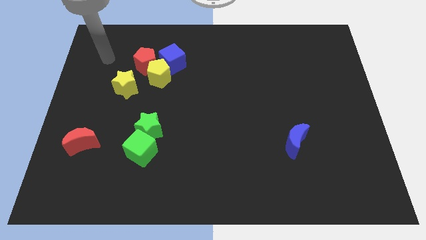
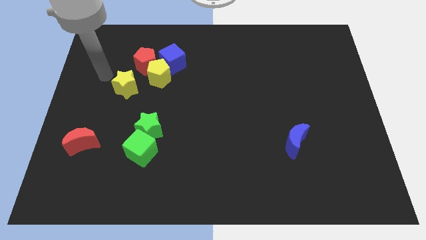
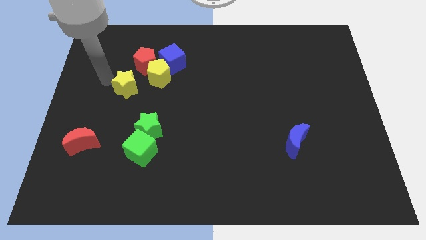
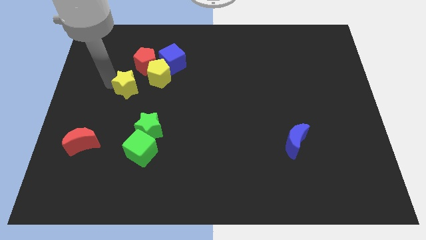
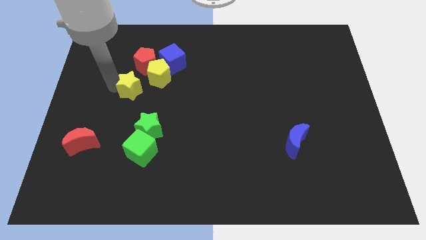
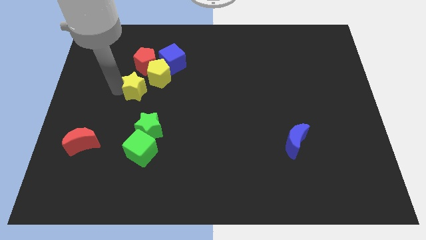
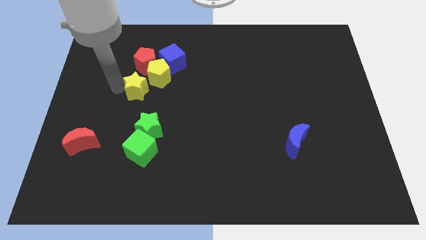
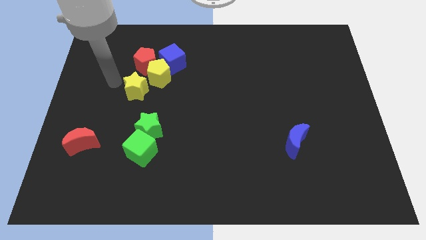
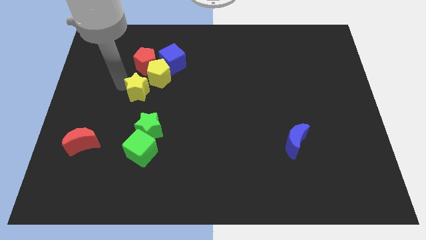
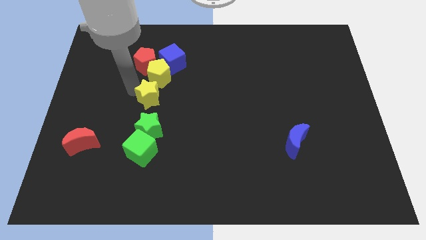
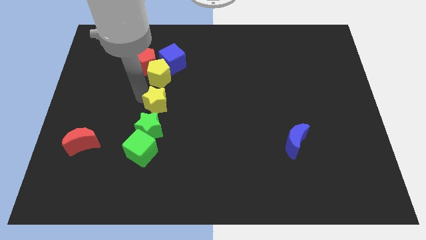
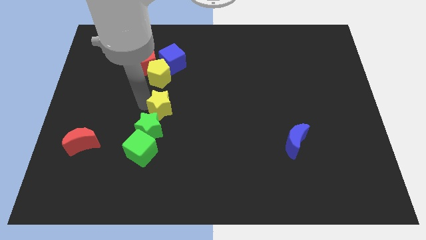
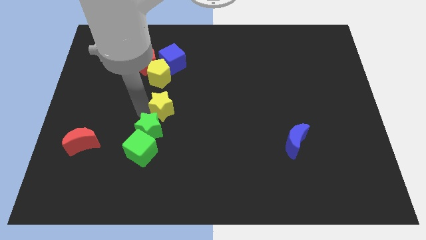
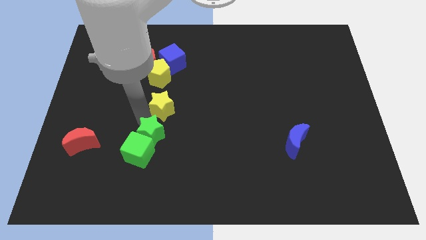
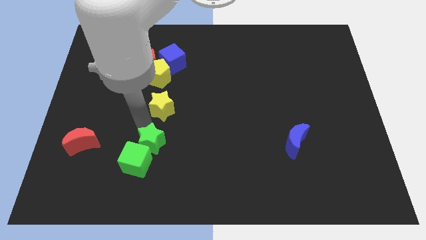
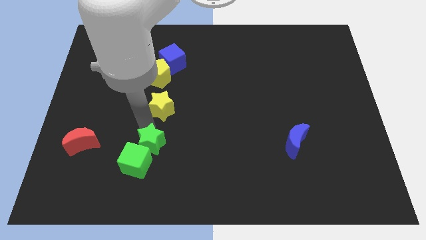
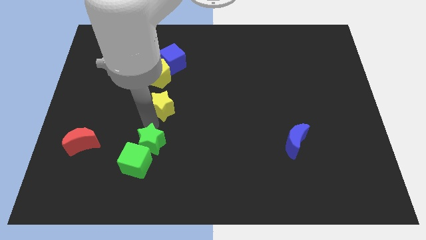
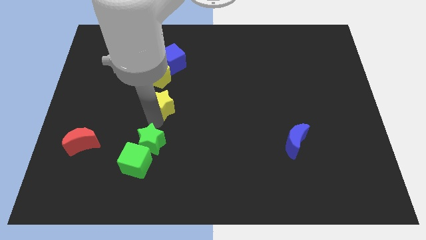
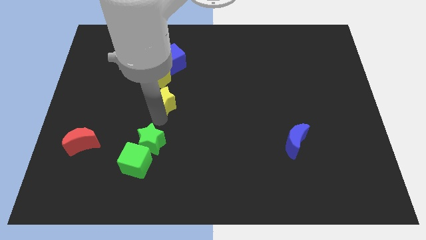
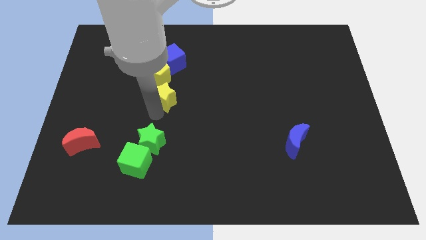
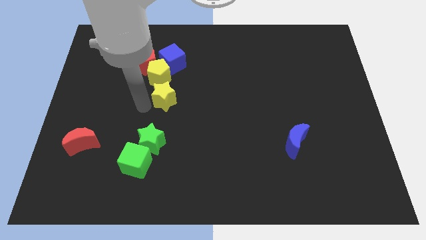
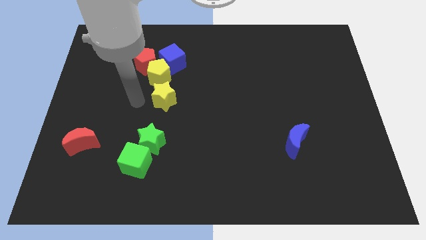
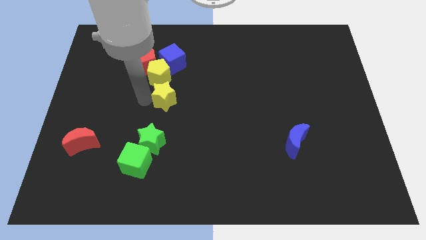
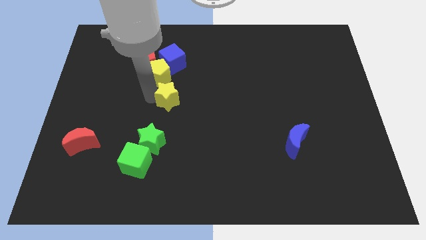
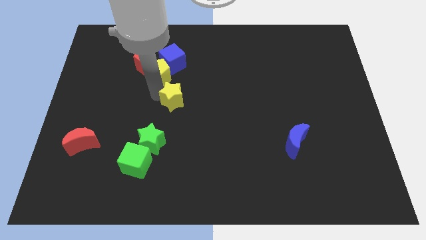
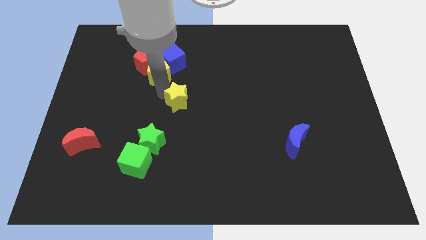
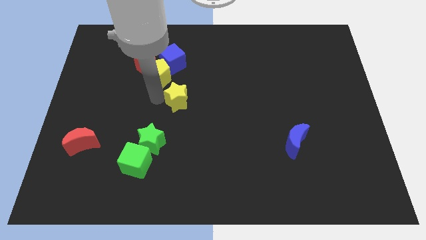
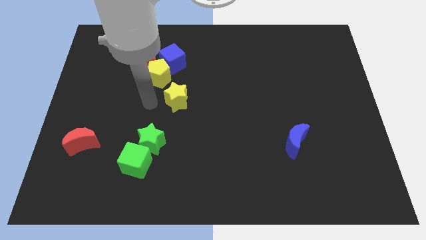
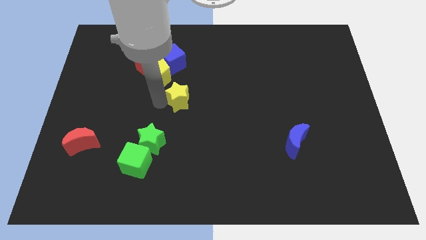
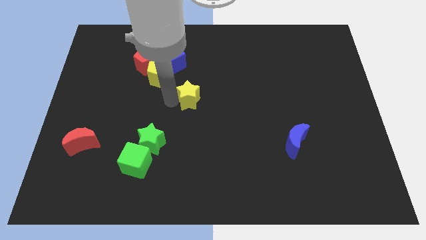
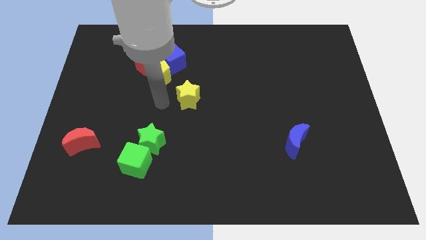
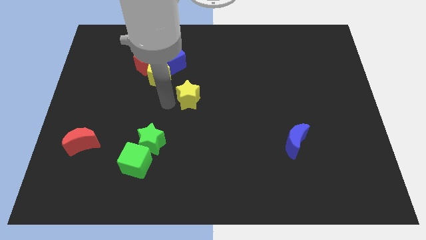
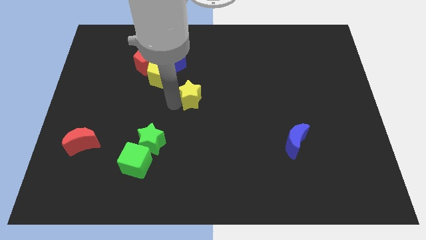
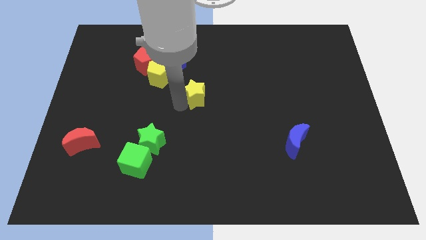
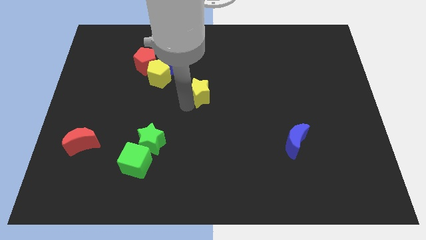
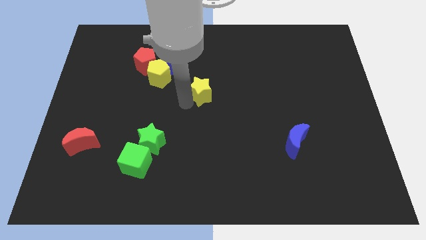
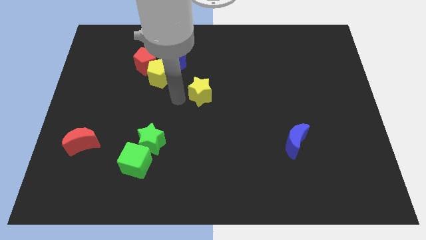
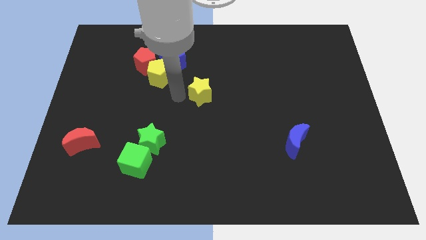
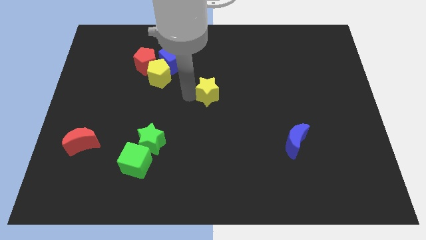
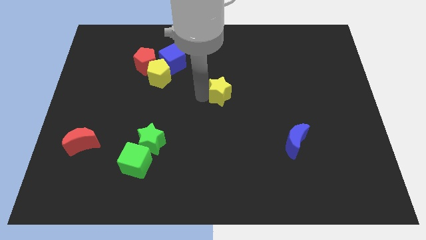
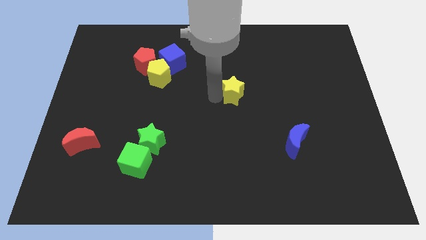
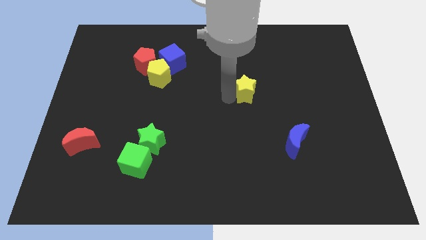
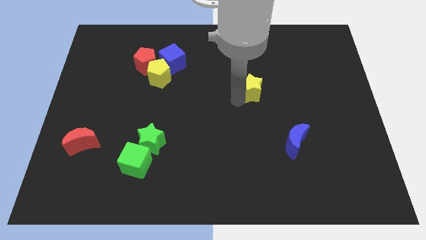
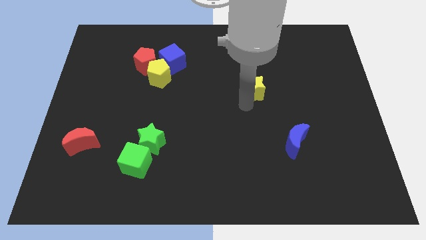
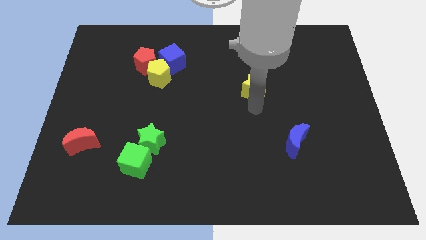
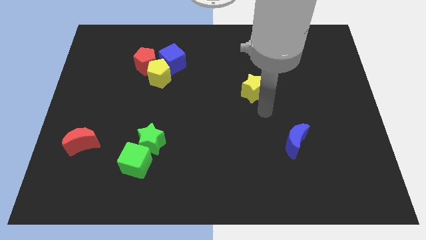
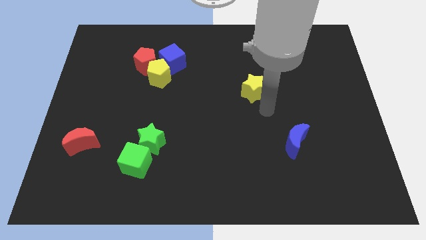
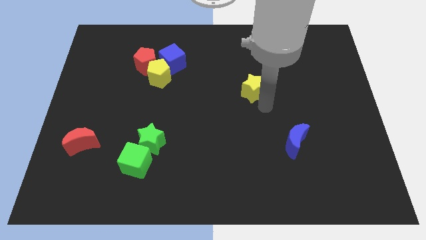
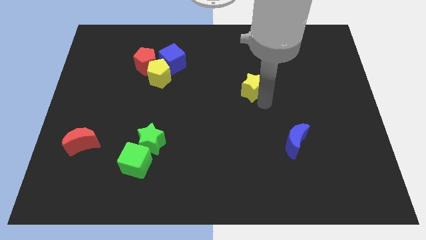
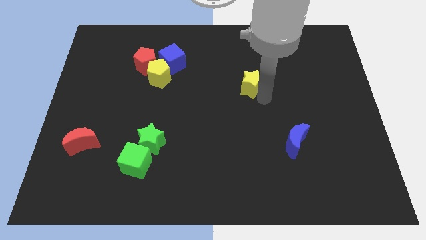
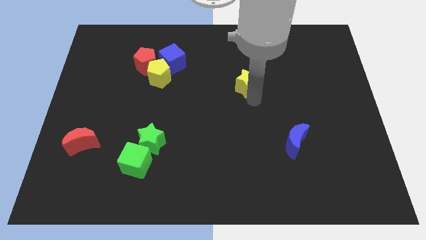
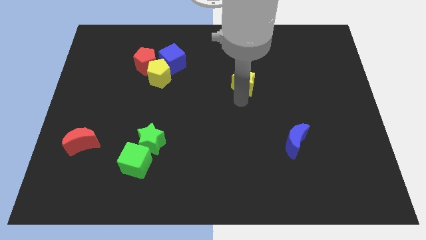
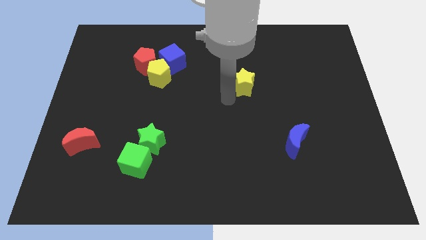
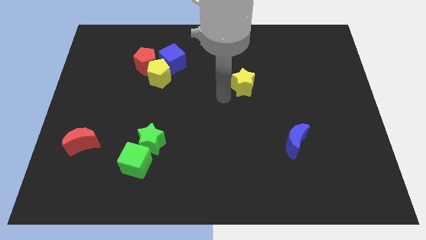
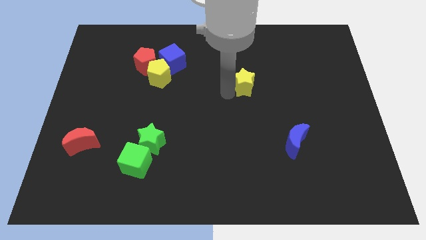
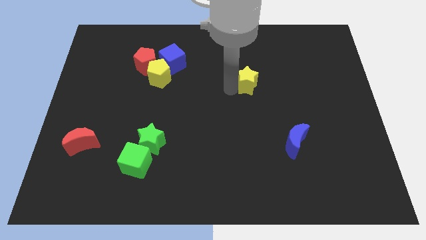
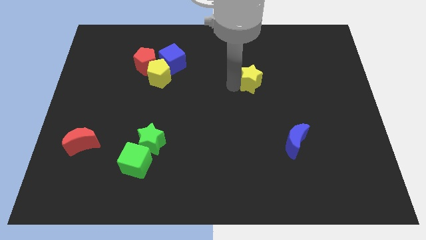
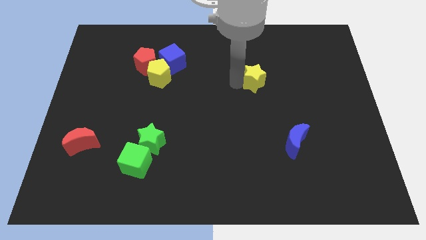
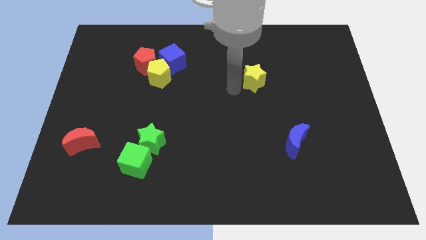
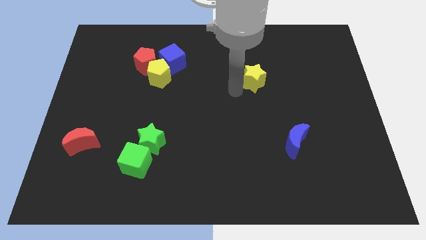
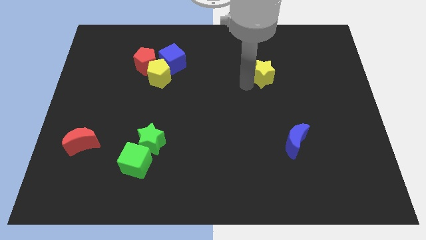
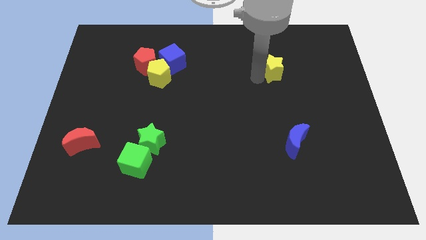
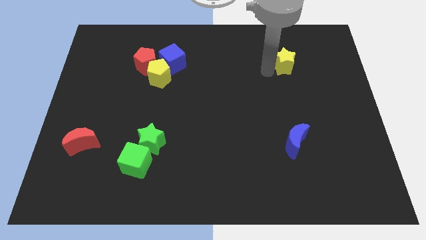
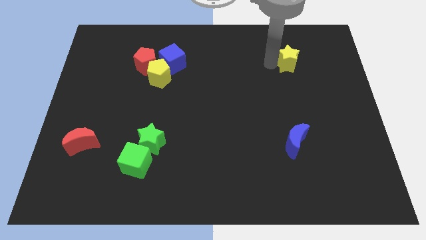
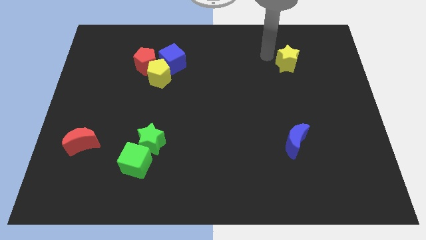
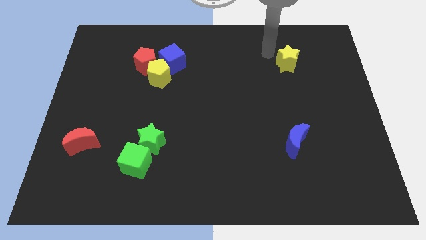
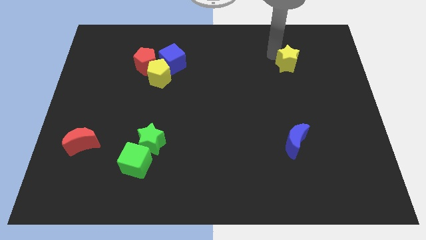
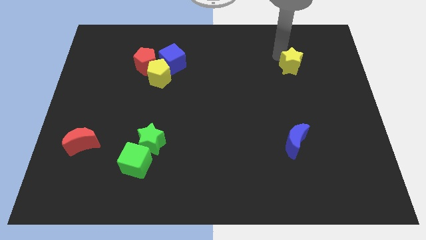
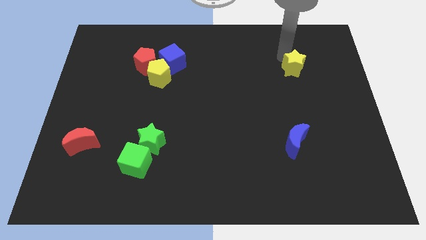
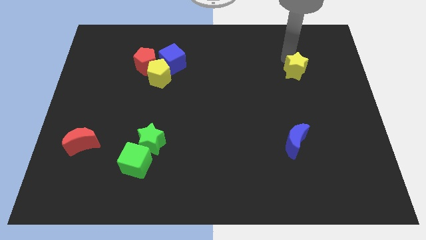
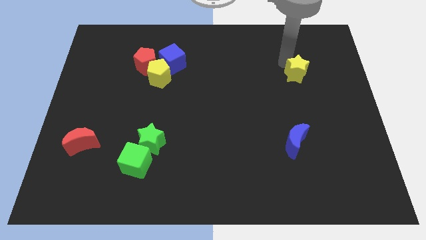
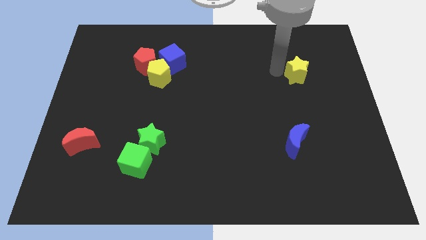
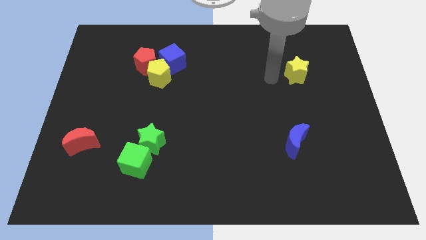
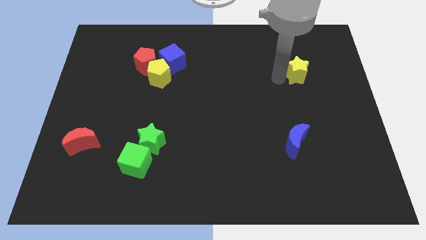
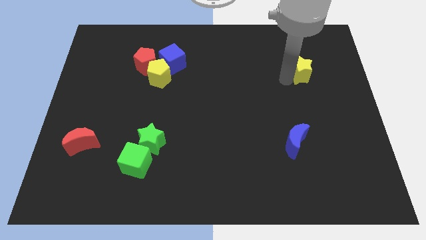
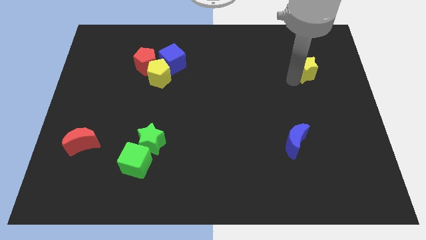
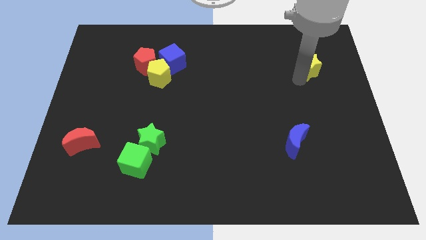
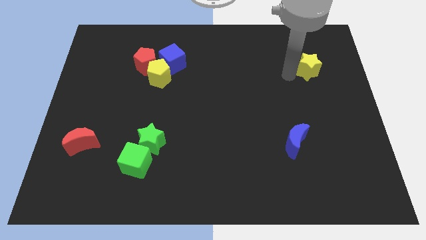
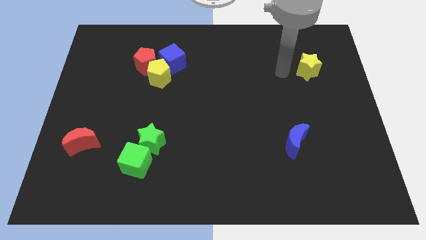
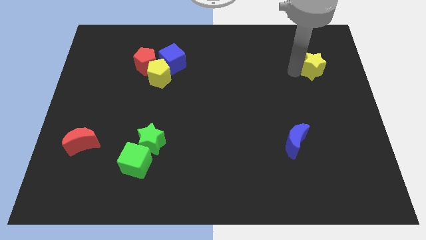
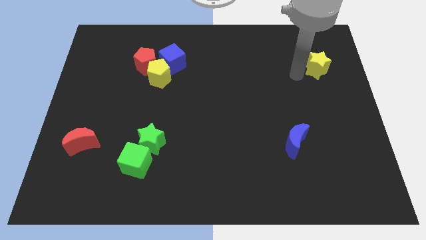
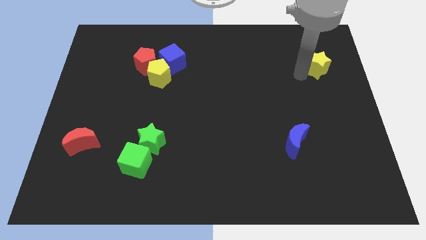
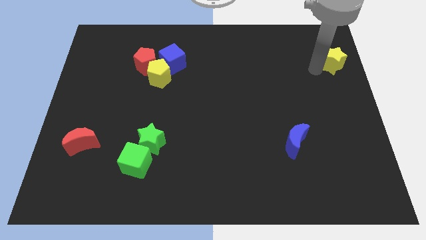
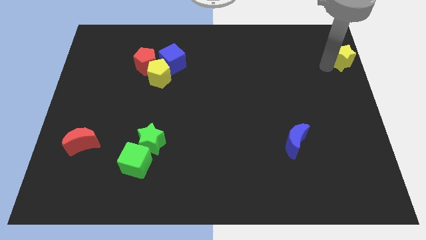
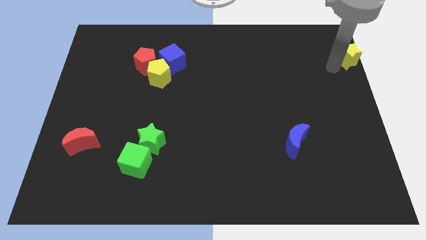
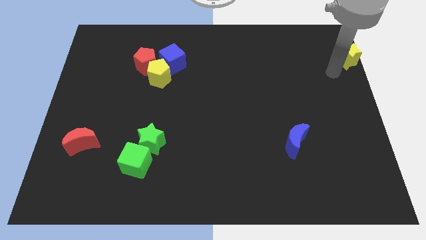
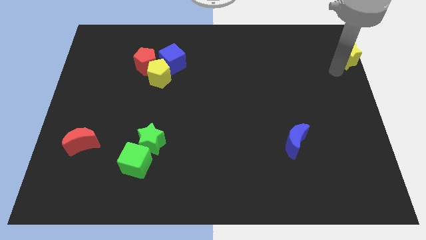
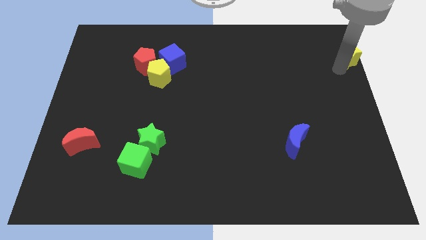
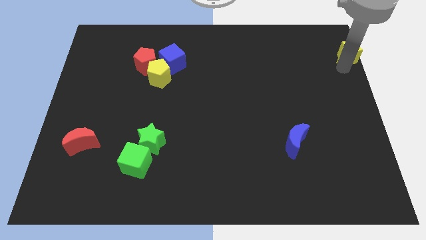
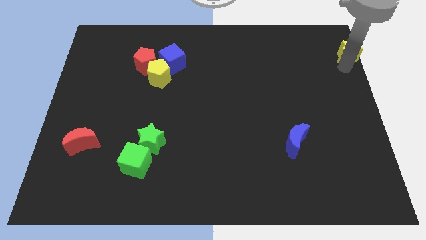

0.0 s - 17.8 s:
put the yellow star to the top right corner
